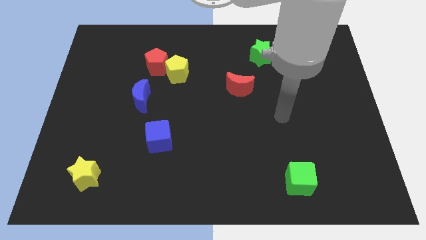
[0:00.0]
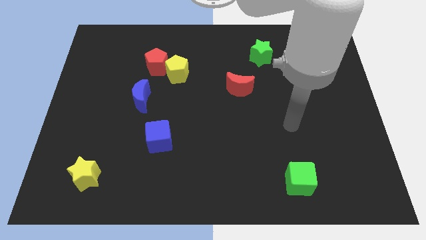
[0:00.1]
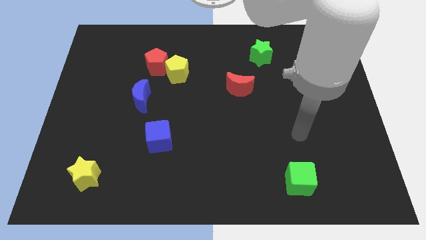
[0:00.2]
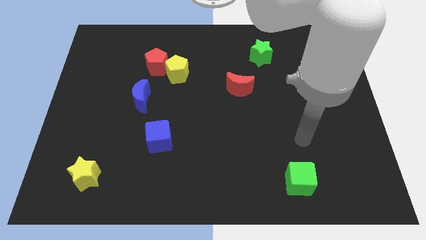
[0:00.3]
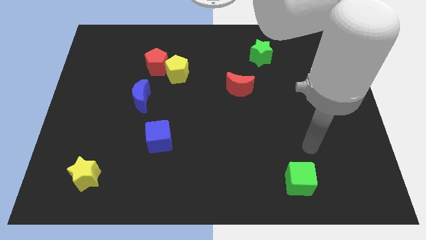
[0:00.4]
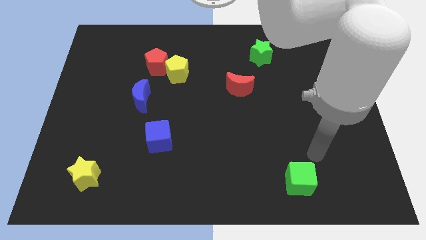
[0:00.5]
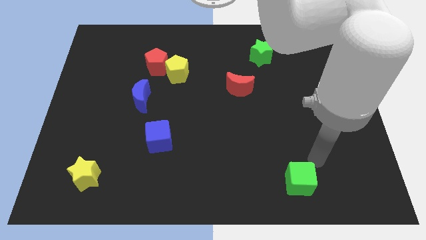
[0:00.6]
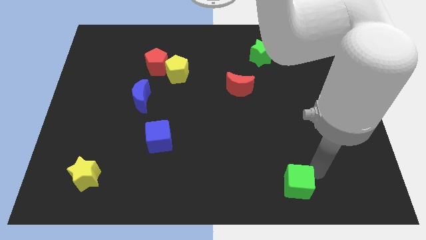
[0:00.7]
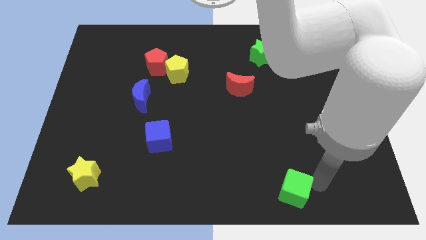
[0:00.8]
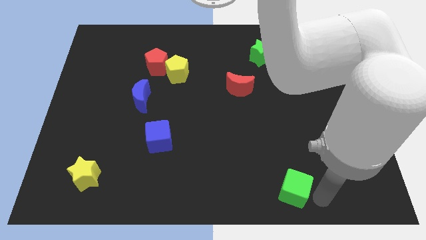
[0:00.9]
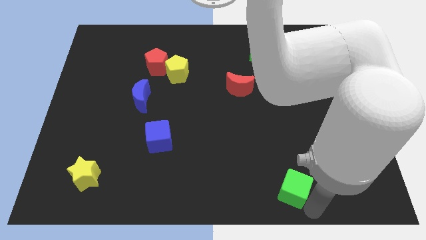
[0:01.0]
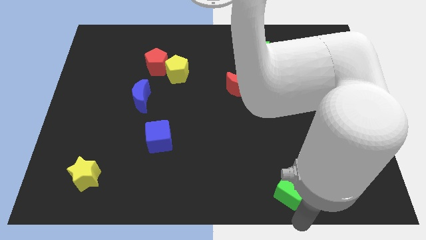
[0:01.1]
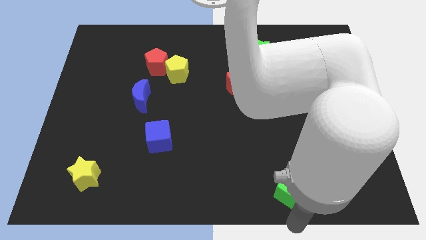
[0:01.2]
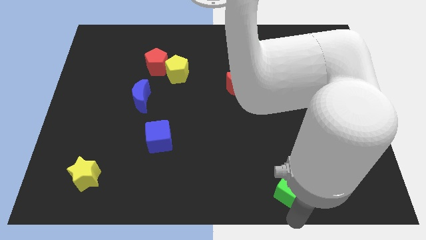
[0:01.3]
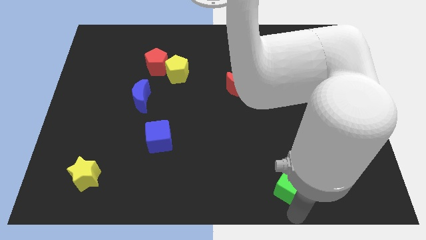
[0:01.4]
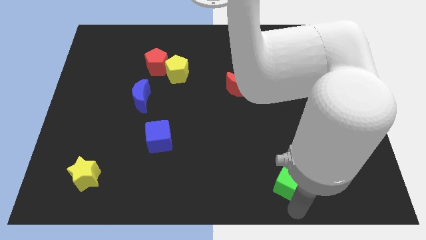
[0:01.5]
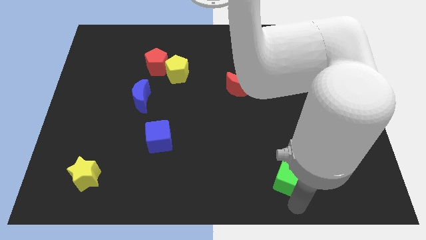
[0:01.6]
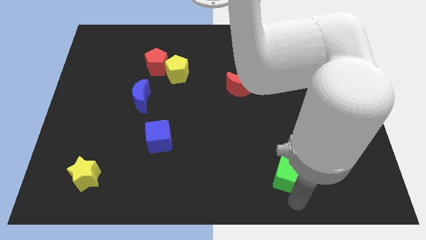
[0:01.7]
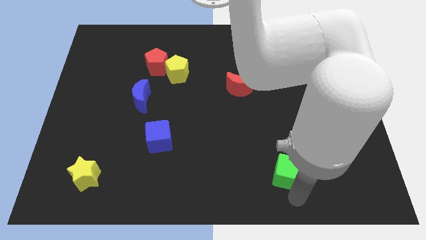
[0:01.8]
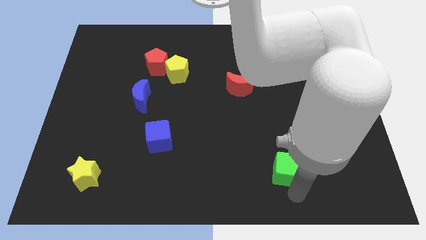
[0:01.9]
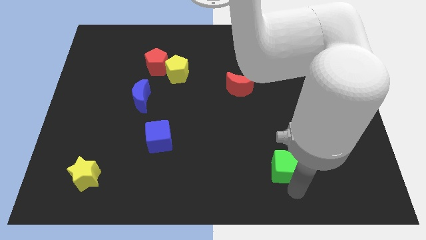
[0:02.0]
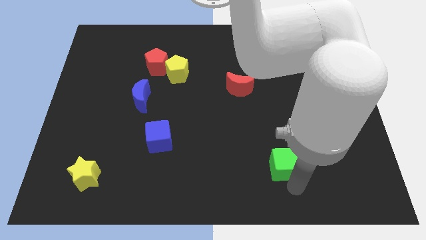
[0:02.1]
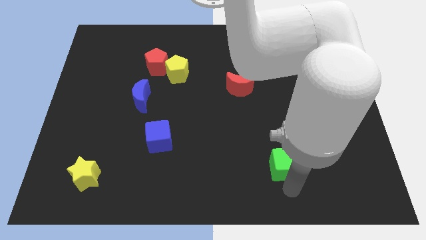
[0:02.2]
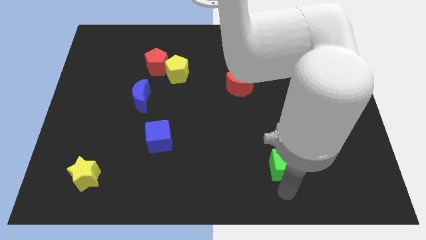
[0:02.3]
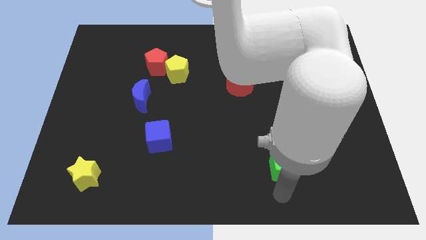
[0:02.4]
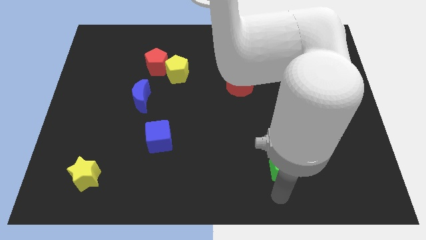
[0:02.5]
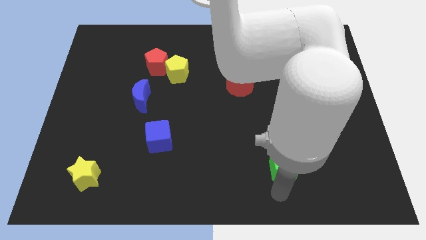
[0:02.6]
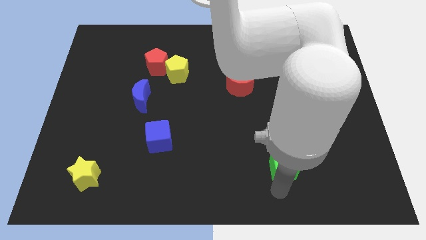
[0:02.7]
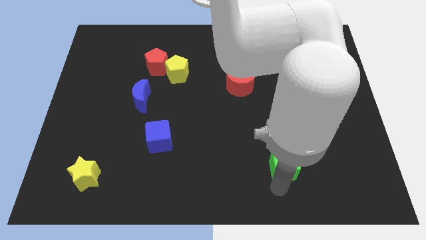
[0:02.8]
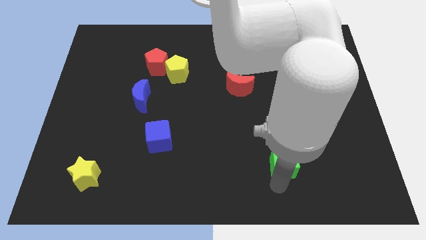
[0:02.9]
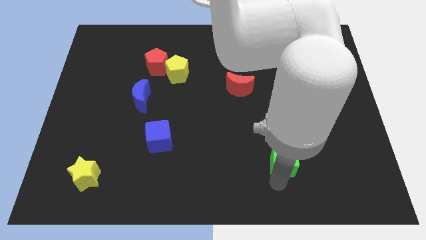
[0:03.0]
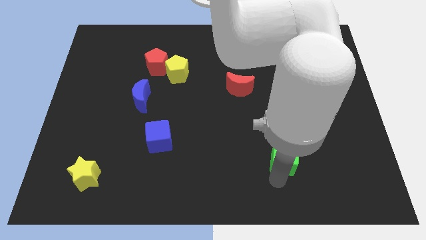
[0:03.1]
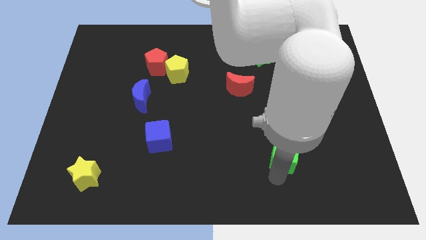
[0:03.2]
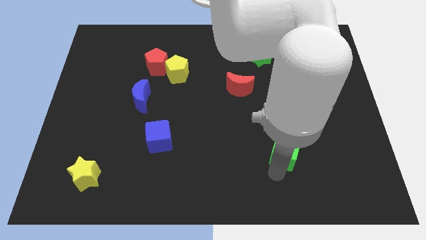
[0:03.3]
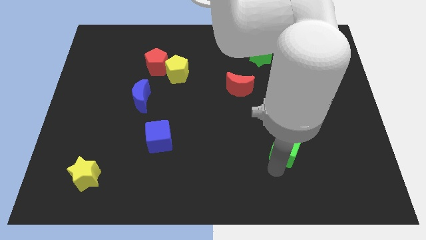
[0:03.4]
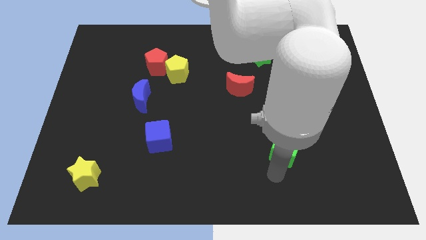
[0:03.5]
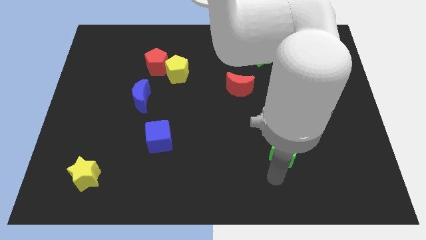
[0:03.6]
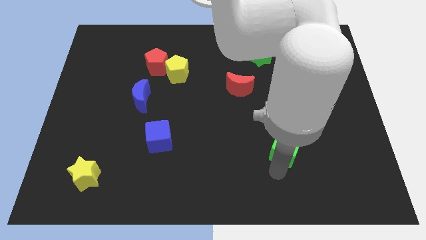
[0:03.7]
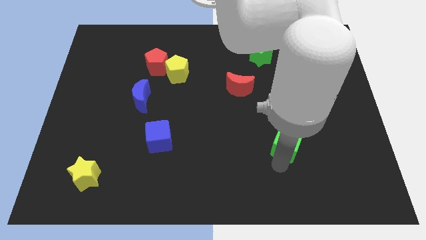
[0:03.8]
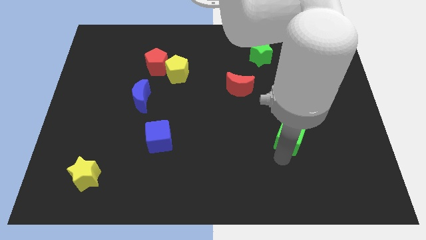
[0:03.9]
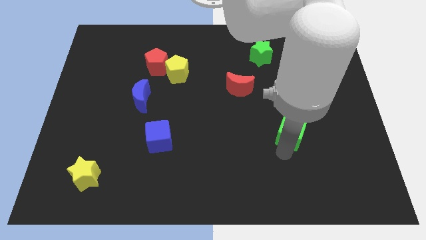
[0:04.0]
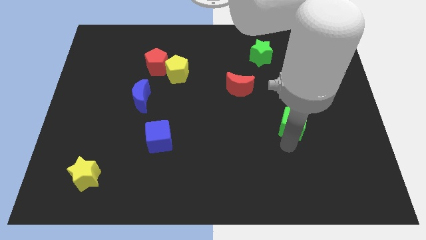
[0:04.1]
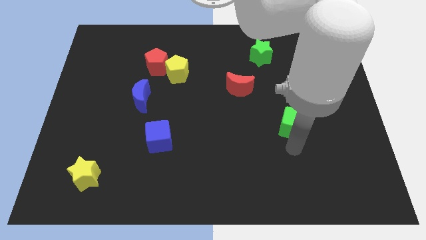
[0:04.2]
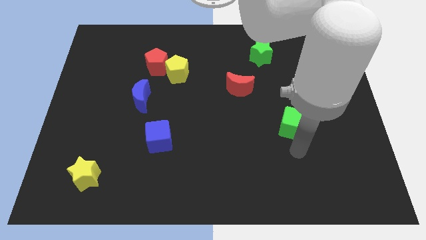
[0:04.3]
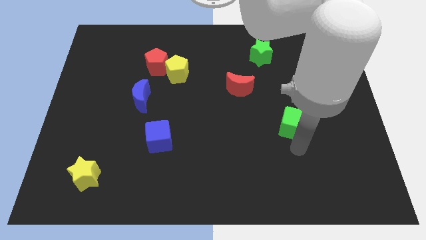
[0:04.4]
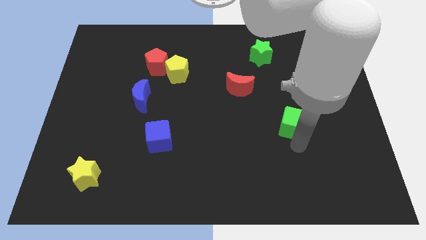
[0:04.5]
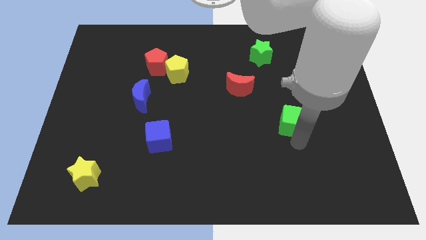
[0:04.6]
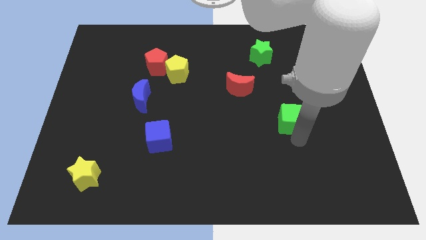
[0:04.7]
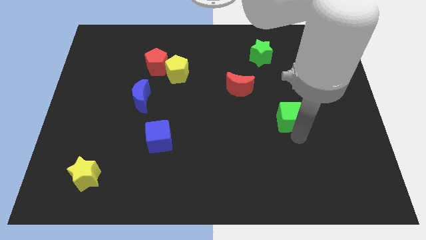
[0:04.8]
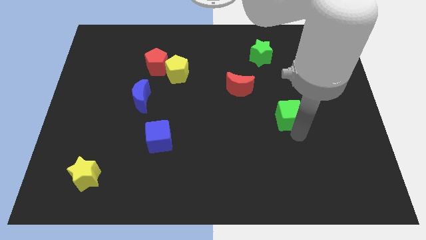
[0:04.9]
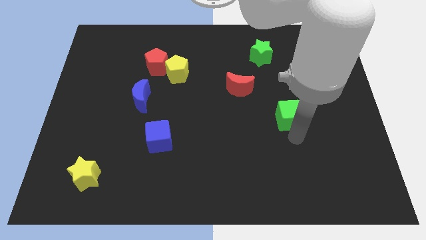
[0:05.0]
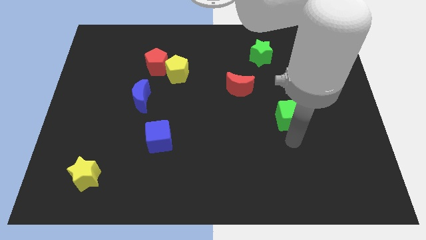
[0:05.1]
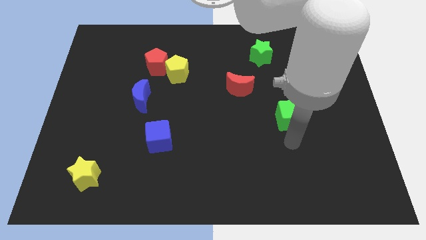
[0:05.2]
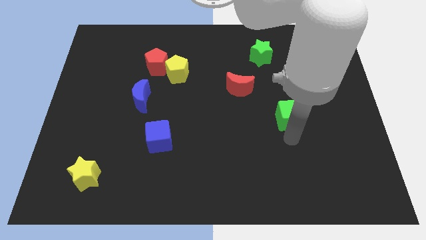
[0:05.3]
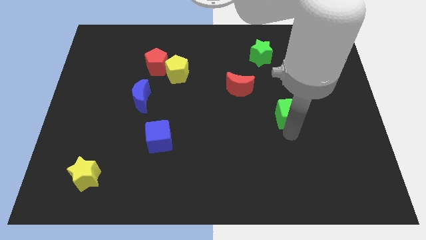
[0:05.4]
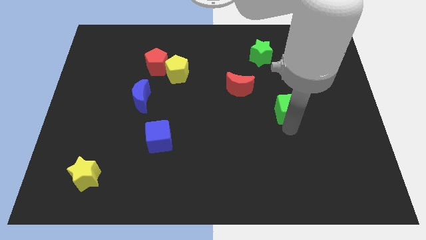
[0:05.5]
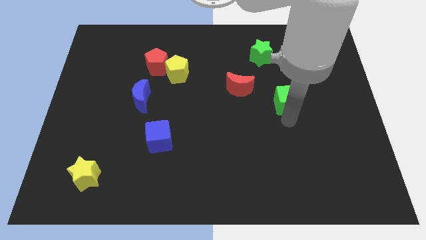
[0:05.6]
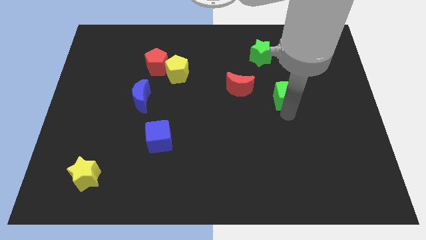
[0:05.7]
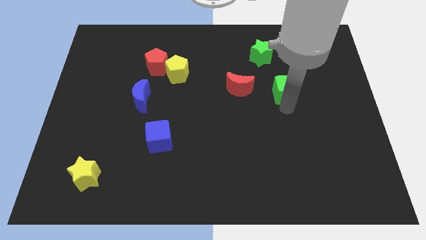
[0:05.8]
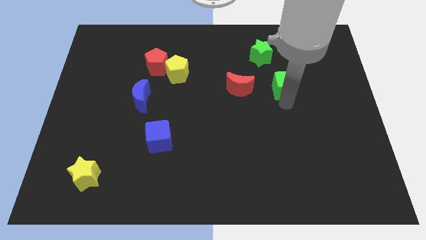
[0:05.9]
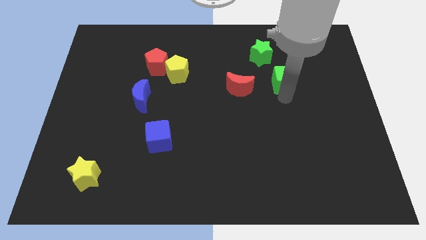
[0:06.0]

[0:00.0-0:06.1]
push the green cube diagonally down and to the right of the green star
